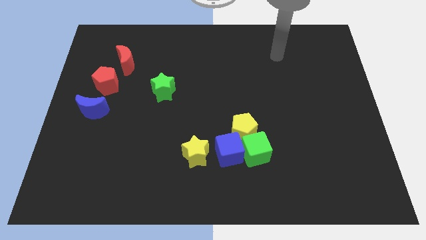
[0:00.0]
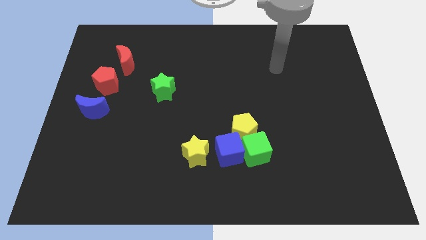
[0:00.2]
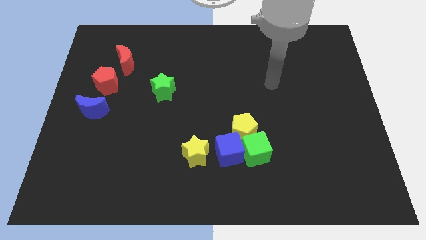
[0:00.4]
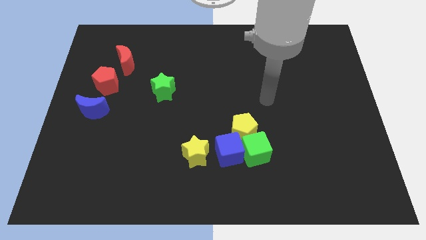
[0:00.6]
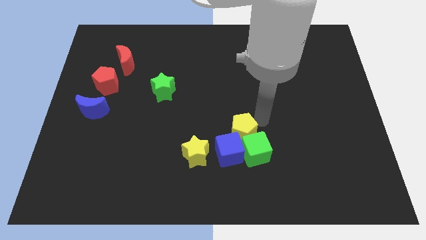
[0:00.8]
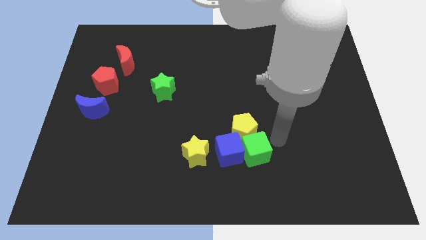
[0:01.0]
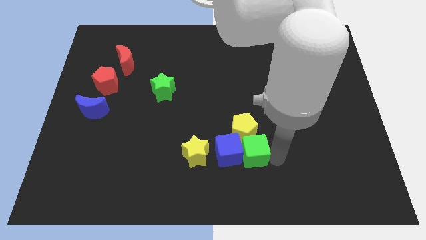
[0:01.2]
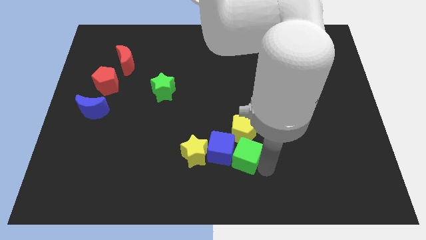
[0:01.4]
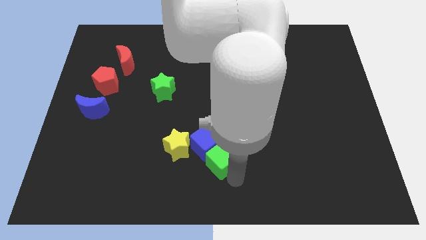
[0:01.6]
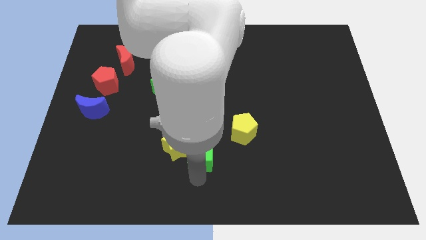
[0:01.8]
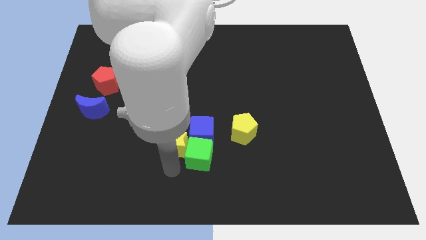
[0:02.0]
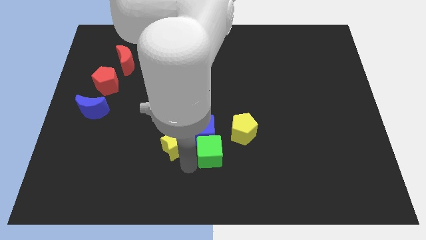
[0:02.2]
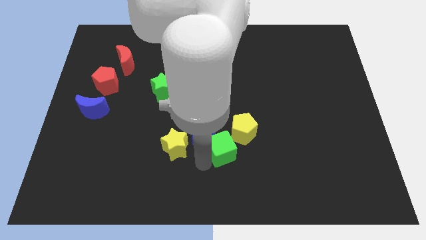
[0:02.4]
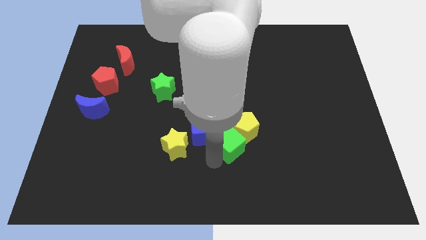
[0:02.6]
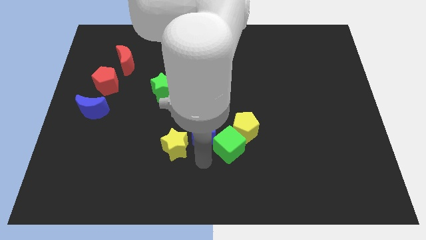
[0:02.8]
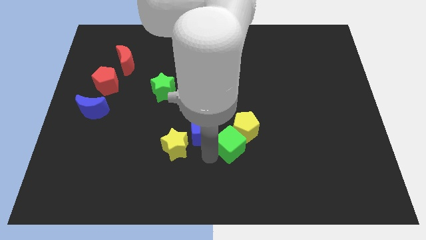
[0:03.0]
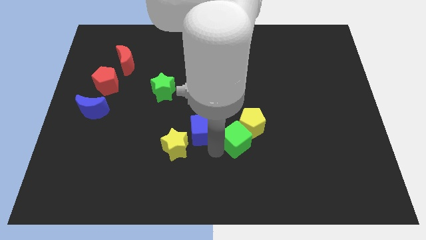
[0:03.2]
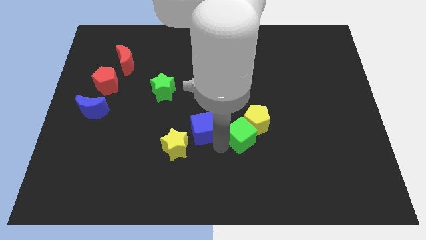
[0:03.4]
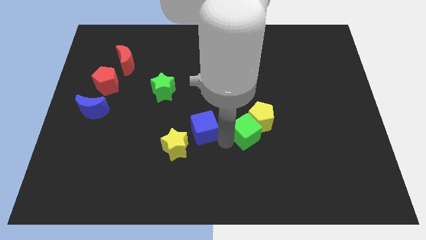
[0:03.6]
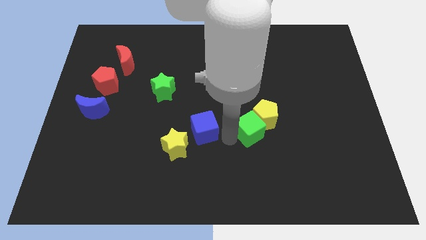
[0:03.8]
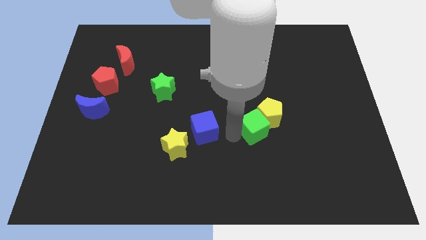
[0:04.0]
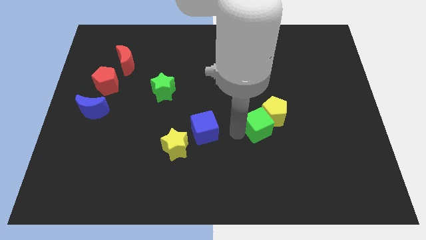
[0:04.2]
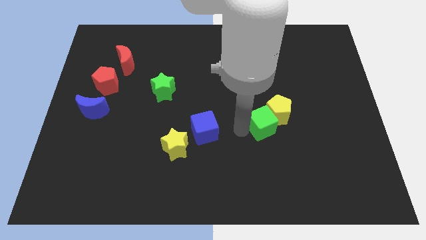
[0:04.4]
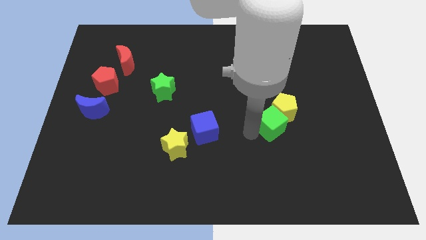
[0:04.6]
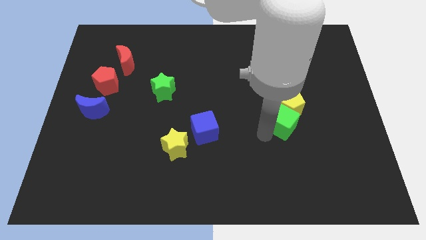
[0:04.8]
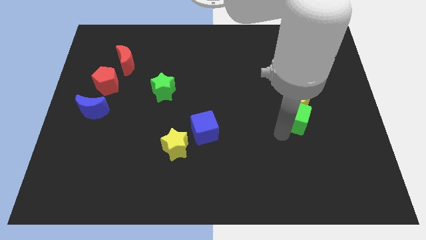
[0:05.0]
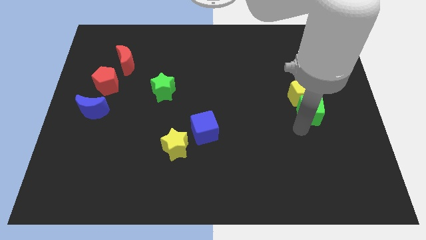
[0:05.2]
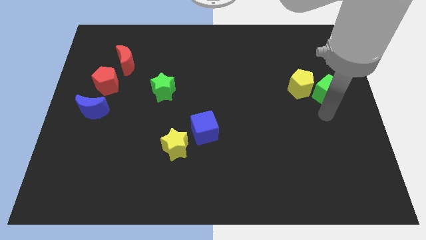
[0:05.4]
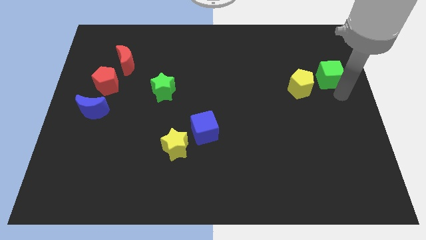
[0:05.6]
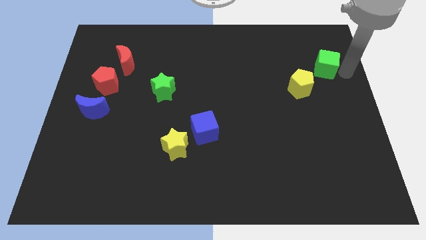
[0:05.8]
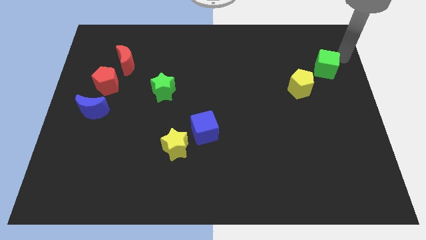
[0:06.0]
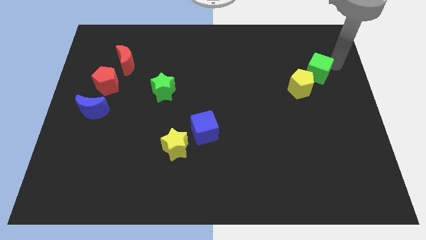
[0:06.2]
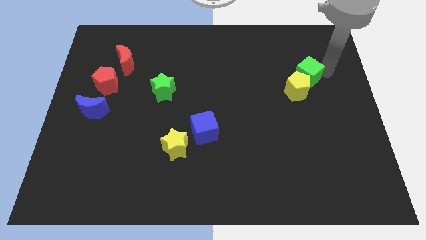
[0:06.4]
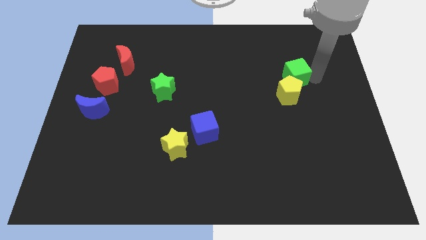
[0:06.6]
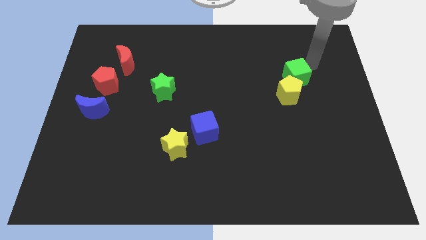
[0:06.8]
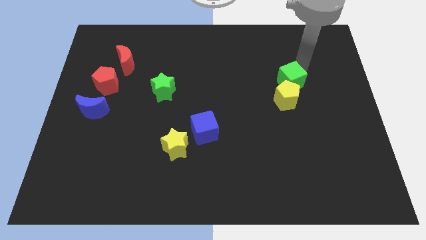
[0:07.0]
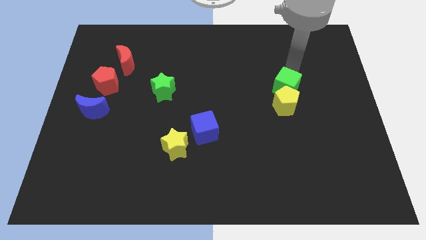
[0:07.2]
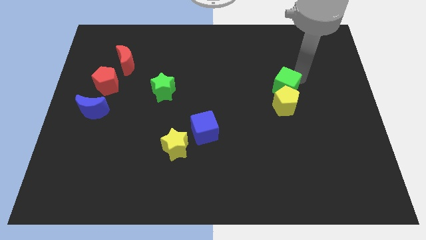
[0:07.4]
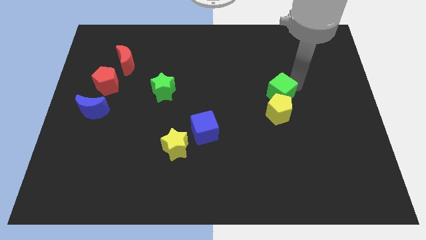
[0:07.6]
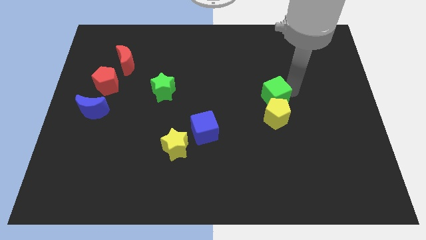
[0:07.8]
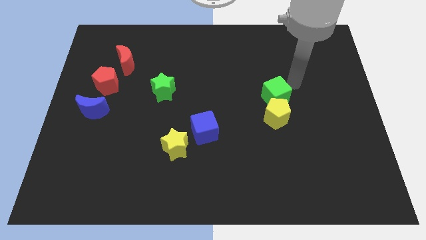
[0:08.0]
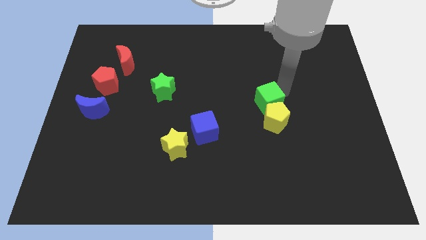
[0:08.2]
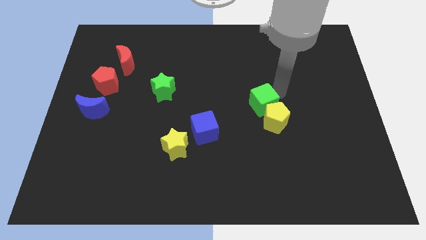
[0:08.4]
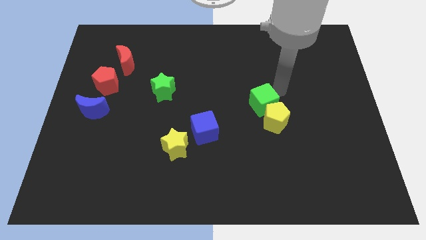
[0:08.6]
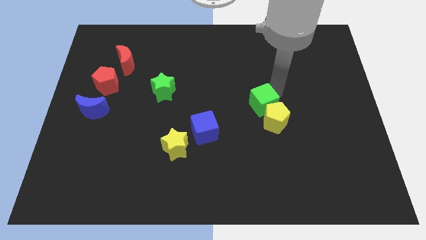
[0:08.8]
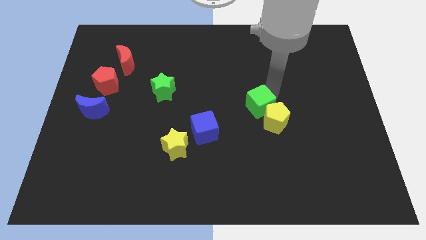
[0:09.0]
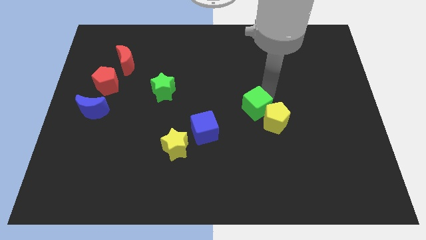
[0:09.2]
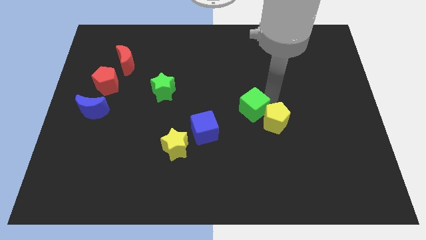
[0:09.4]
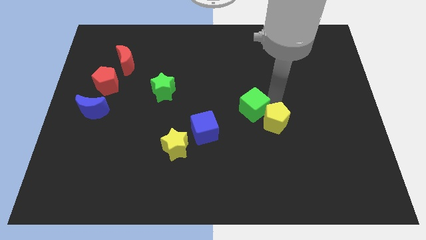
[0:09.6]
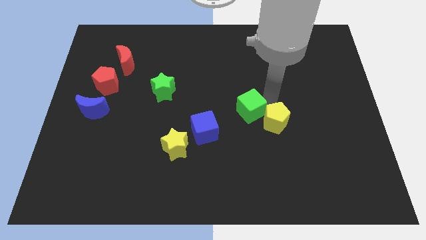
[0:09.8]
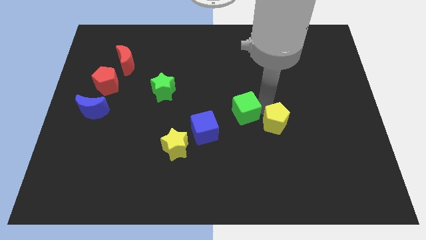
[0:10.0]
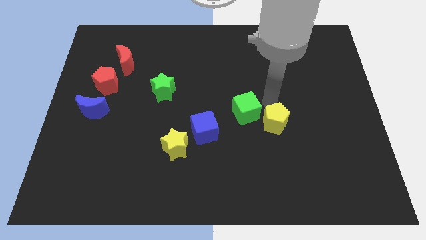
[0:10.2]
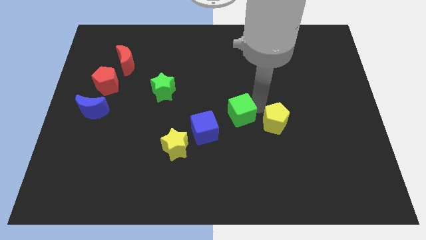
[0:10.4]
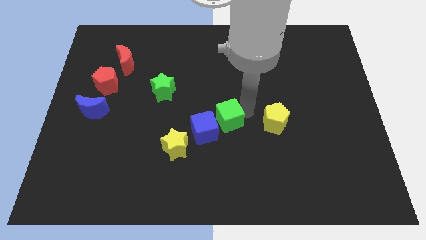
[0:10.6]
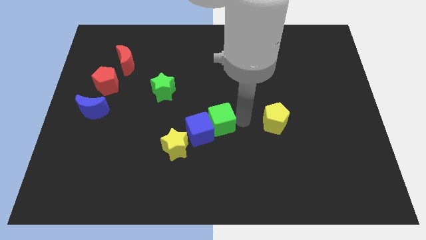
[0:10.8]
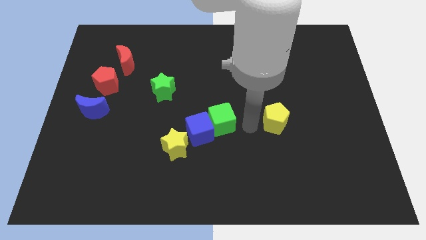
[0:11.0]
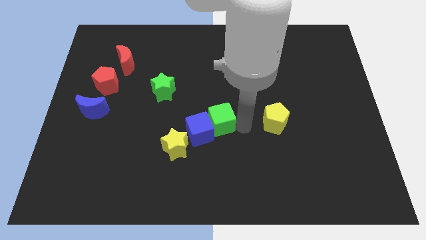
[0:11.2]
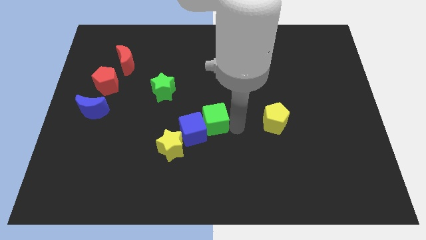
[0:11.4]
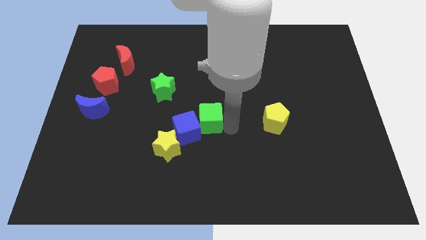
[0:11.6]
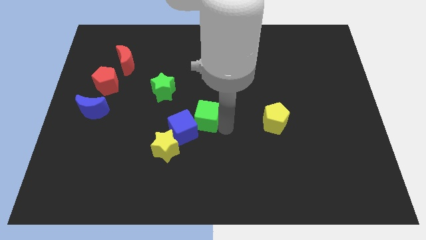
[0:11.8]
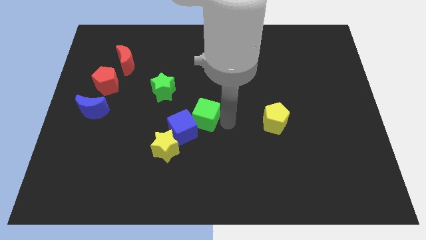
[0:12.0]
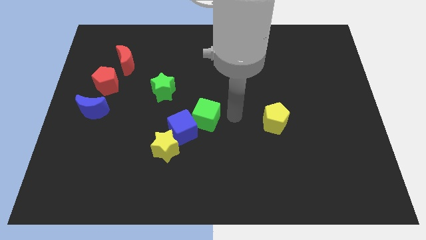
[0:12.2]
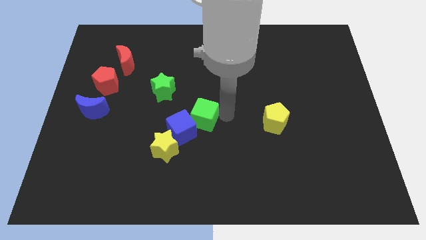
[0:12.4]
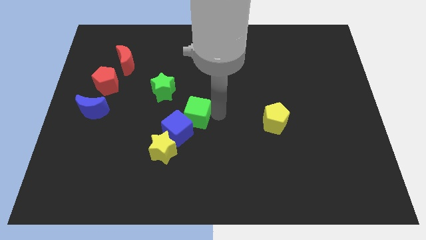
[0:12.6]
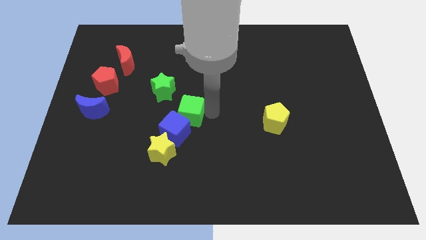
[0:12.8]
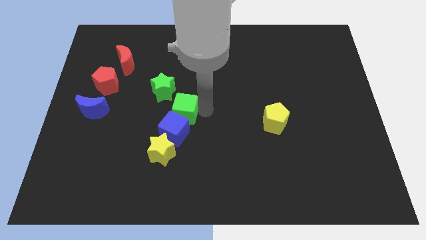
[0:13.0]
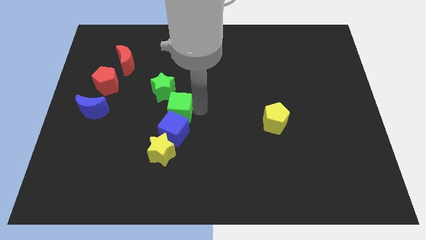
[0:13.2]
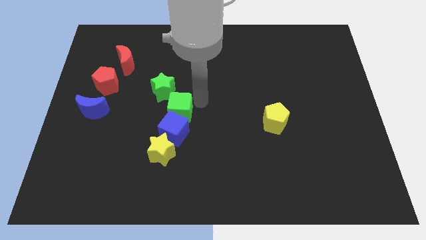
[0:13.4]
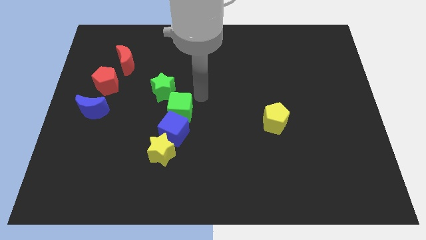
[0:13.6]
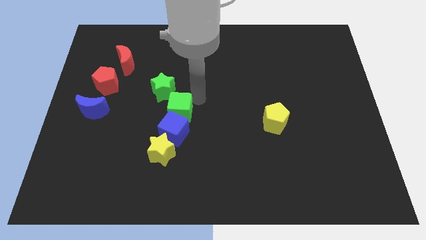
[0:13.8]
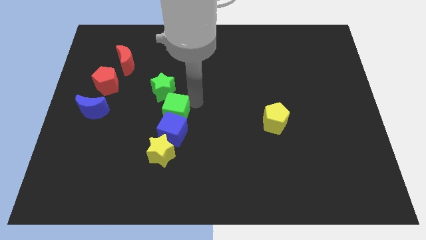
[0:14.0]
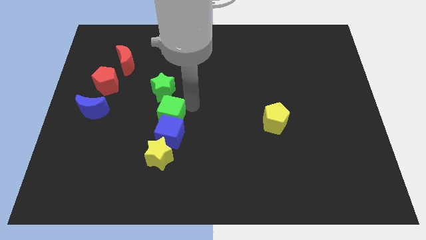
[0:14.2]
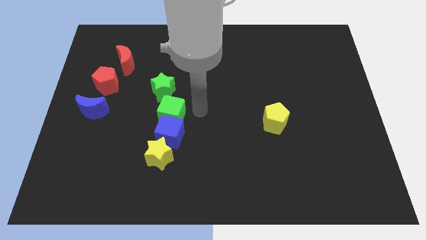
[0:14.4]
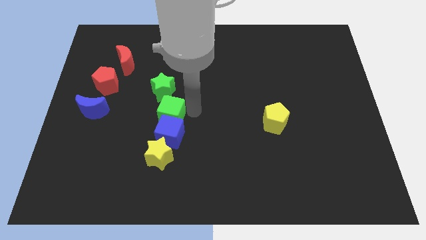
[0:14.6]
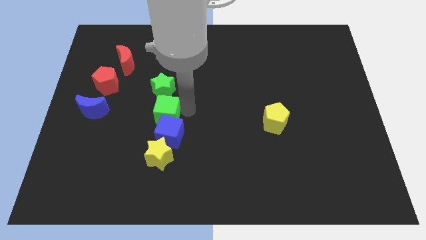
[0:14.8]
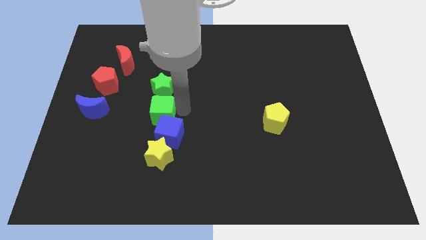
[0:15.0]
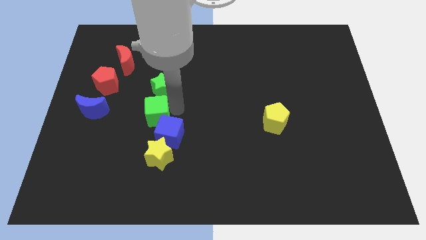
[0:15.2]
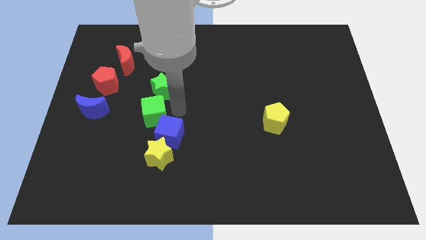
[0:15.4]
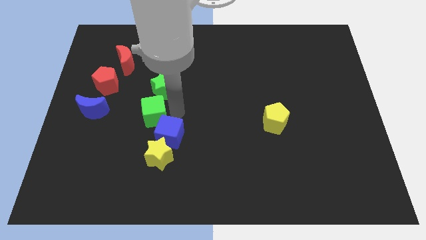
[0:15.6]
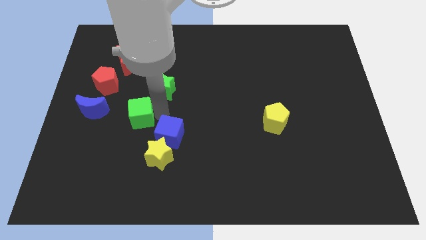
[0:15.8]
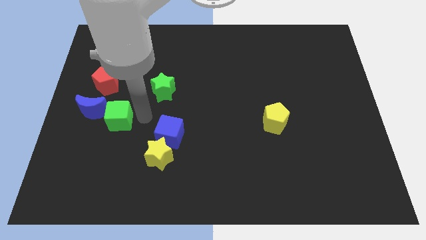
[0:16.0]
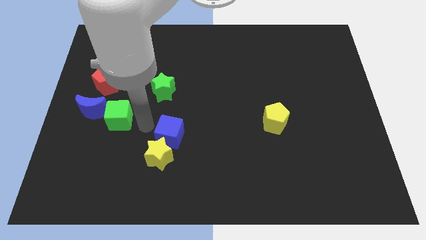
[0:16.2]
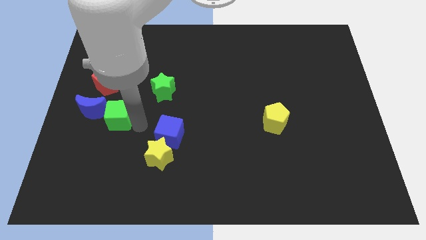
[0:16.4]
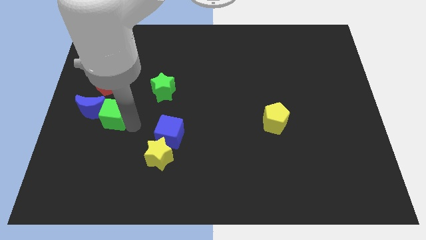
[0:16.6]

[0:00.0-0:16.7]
slide the green cube close to the blue moon
